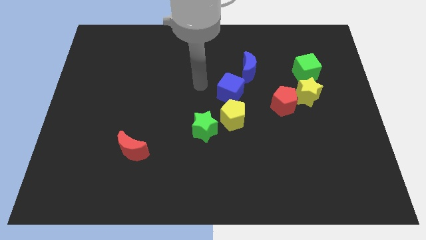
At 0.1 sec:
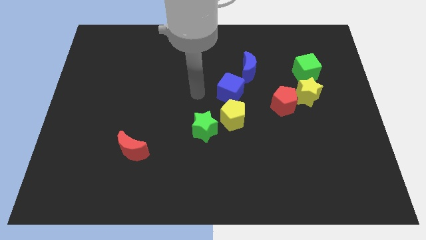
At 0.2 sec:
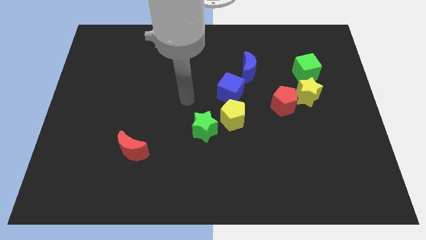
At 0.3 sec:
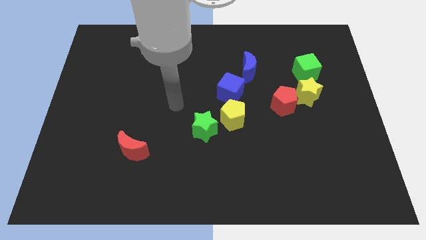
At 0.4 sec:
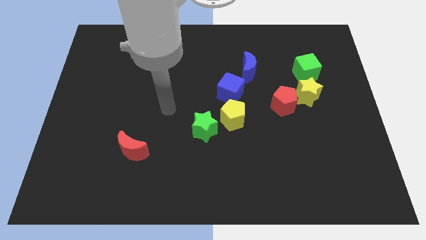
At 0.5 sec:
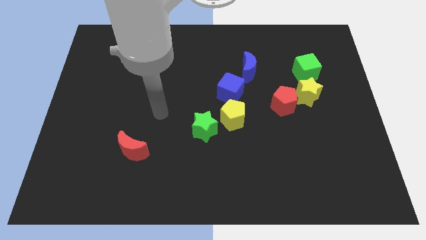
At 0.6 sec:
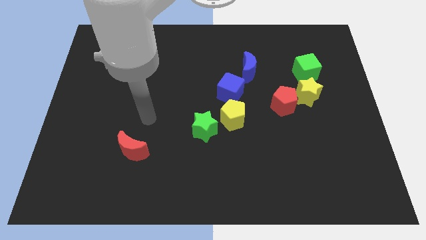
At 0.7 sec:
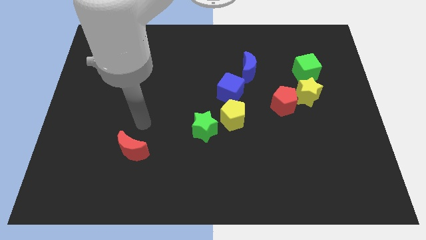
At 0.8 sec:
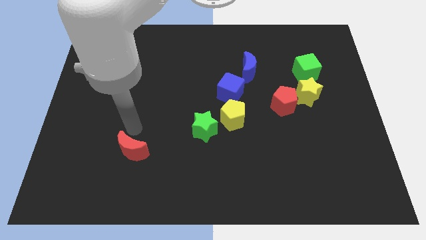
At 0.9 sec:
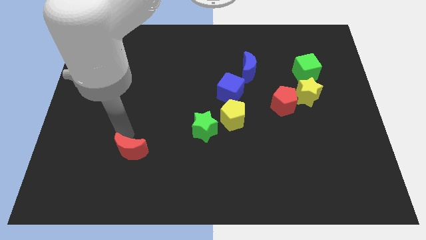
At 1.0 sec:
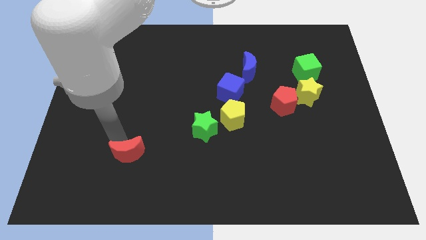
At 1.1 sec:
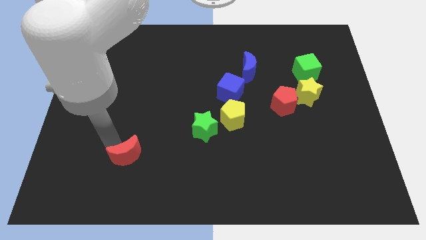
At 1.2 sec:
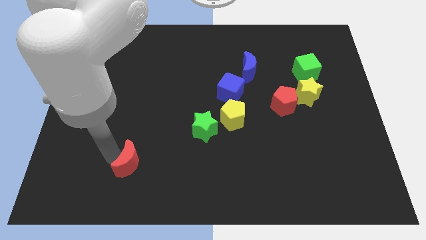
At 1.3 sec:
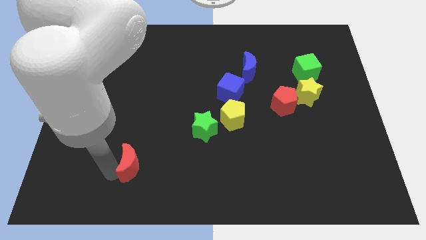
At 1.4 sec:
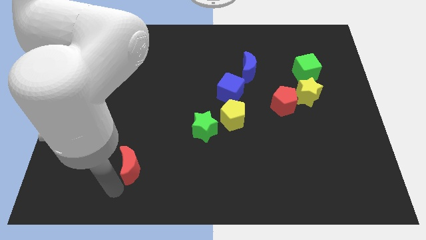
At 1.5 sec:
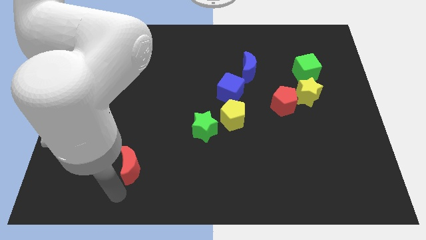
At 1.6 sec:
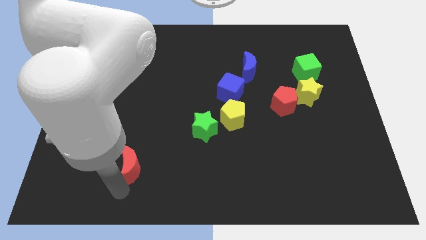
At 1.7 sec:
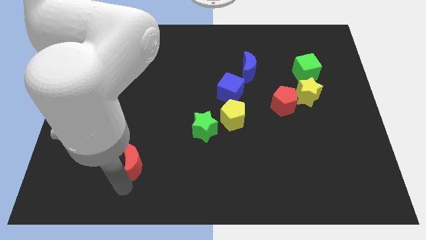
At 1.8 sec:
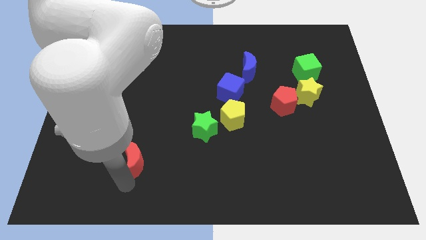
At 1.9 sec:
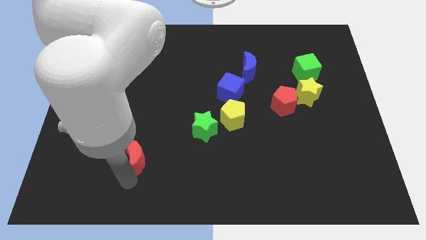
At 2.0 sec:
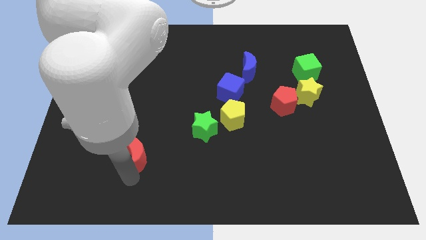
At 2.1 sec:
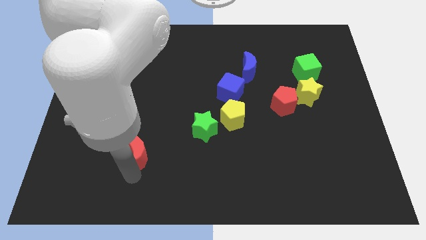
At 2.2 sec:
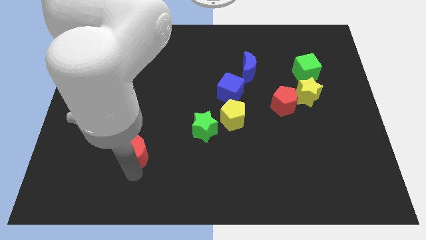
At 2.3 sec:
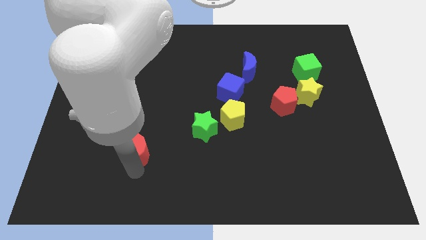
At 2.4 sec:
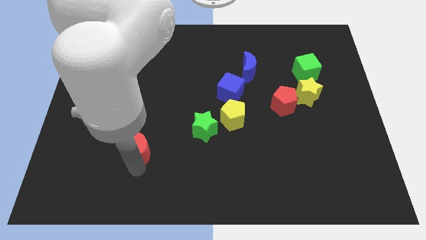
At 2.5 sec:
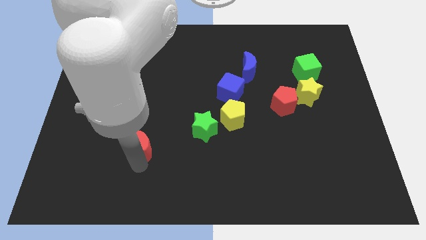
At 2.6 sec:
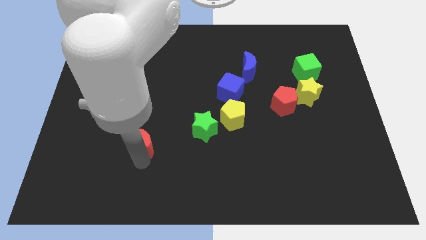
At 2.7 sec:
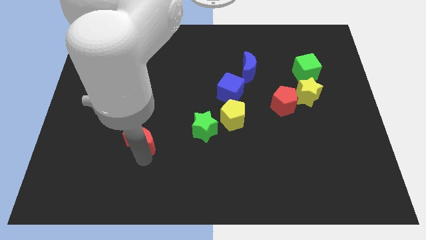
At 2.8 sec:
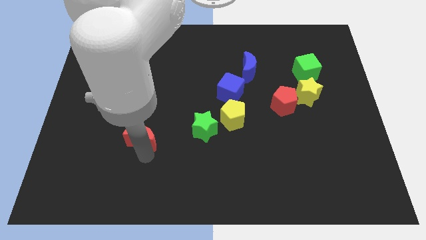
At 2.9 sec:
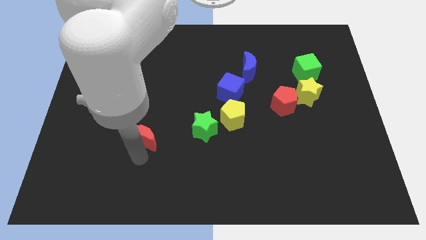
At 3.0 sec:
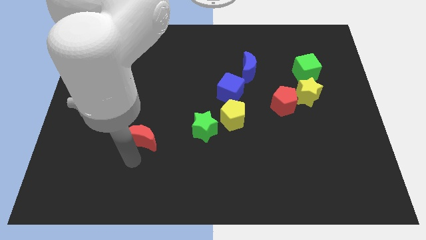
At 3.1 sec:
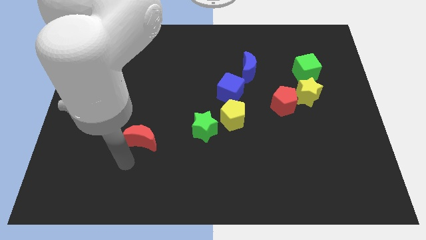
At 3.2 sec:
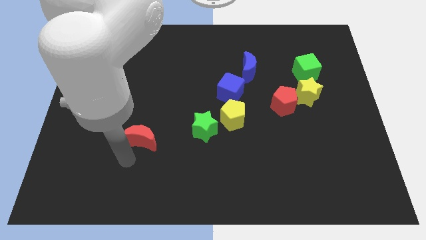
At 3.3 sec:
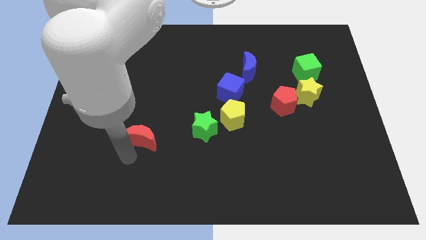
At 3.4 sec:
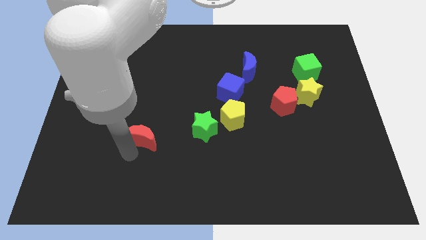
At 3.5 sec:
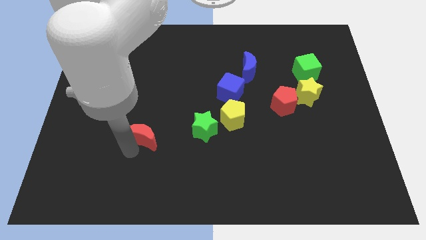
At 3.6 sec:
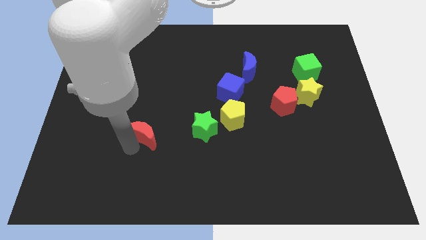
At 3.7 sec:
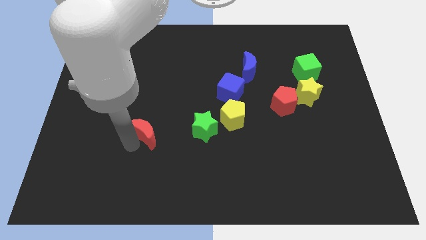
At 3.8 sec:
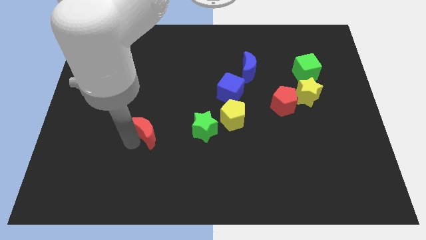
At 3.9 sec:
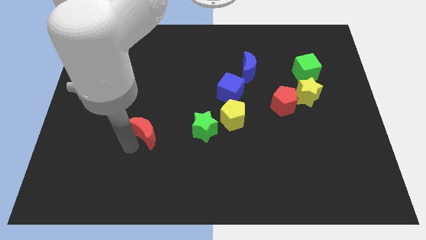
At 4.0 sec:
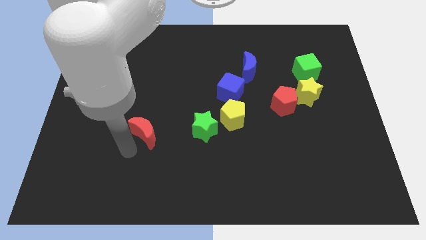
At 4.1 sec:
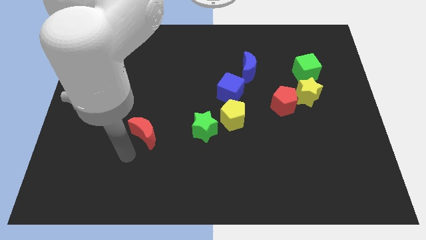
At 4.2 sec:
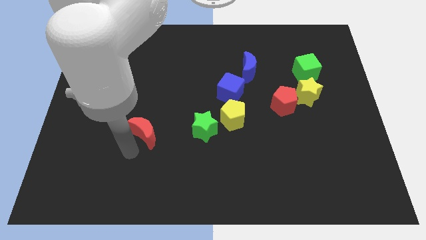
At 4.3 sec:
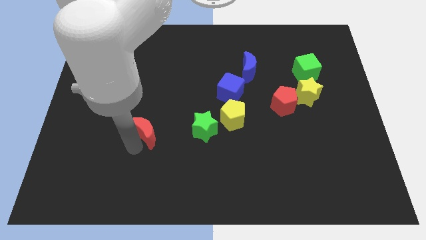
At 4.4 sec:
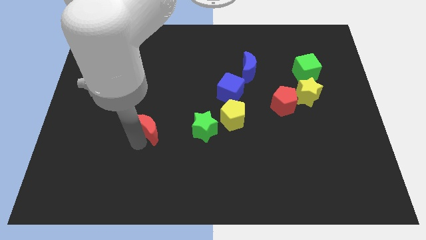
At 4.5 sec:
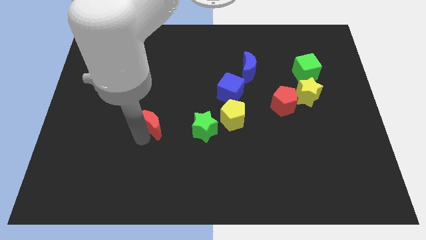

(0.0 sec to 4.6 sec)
push the red moon diagonally upwards and right a little

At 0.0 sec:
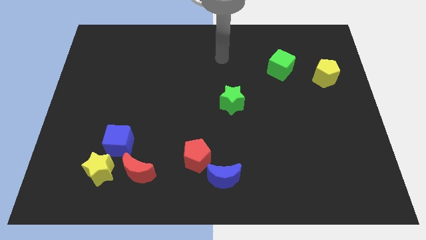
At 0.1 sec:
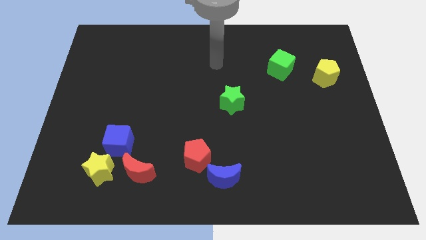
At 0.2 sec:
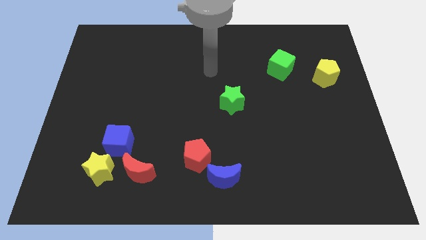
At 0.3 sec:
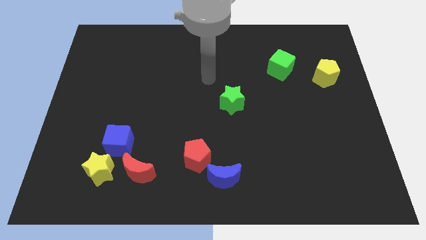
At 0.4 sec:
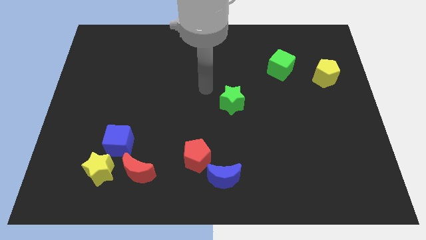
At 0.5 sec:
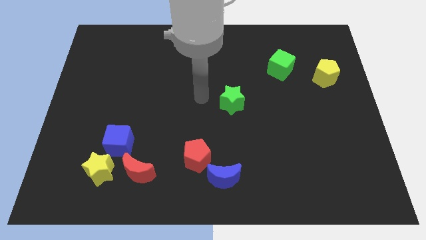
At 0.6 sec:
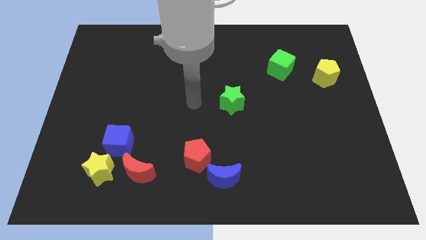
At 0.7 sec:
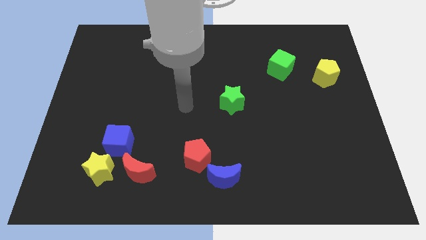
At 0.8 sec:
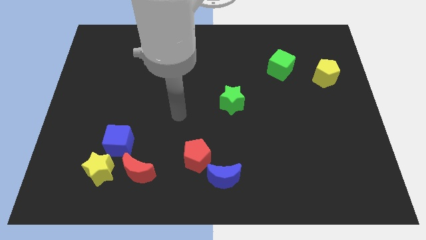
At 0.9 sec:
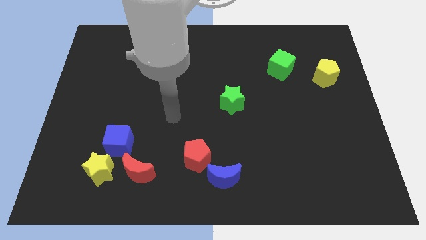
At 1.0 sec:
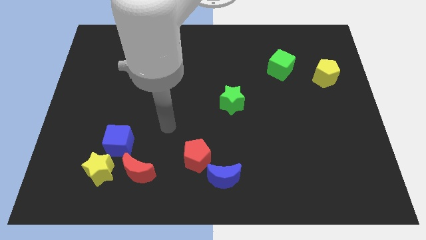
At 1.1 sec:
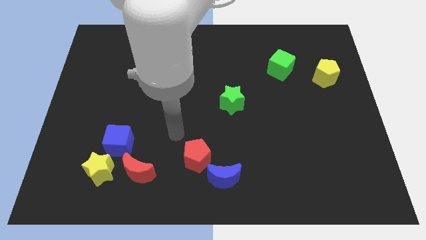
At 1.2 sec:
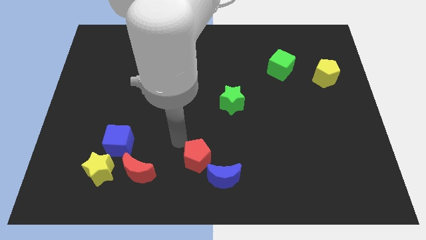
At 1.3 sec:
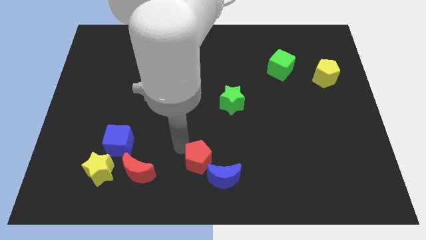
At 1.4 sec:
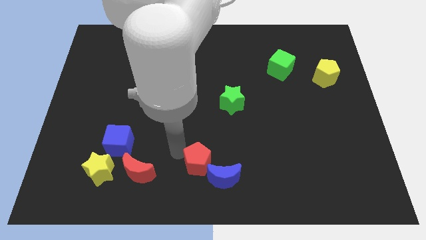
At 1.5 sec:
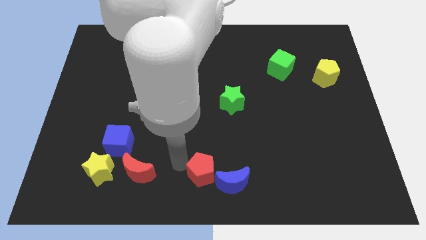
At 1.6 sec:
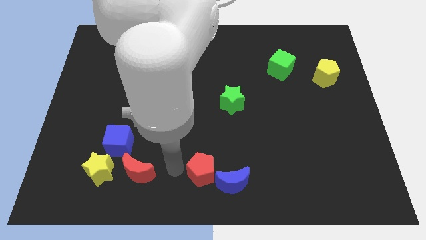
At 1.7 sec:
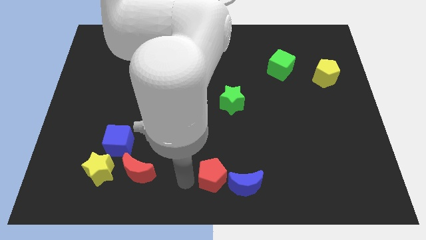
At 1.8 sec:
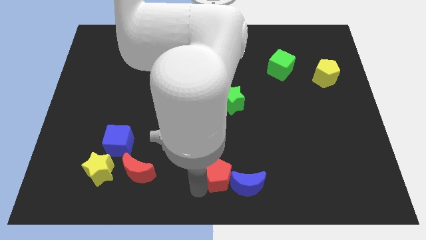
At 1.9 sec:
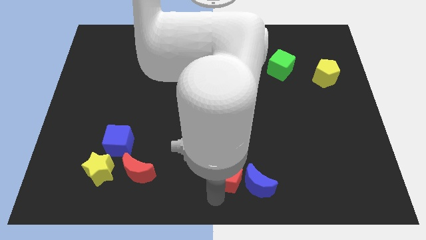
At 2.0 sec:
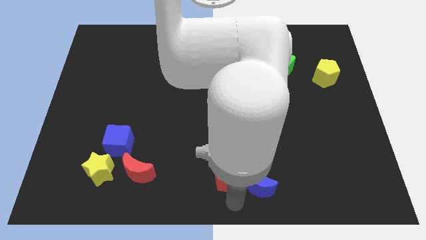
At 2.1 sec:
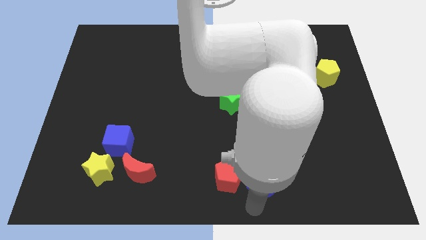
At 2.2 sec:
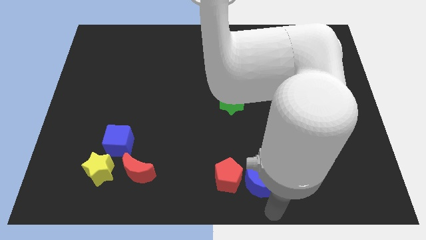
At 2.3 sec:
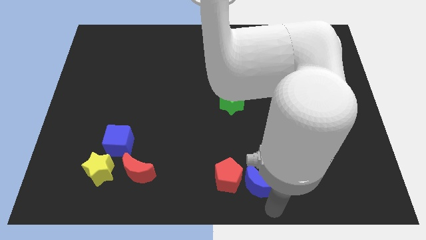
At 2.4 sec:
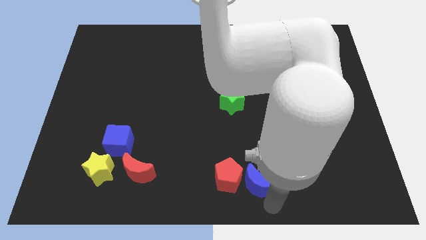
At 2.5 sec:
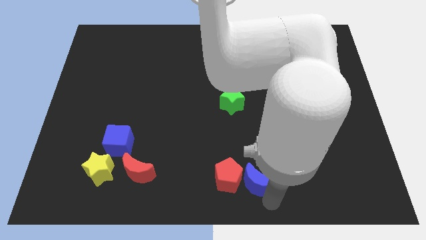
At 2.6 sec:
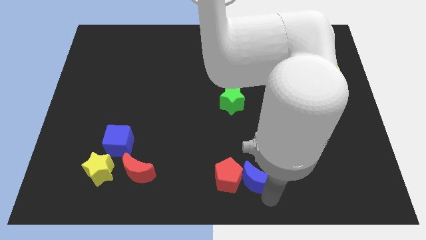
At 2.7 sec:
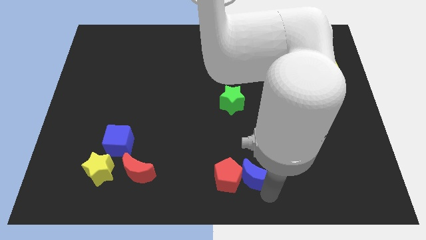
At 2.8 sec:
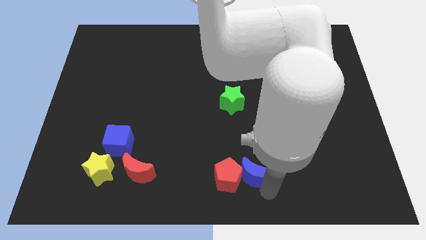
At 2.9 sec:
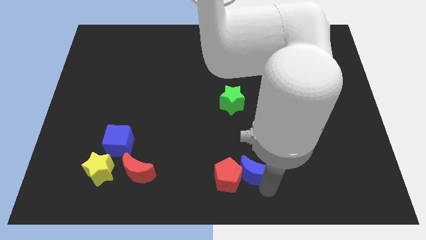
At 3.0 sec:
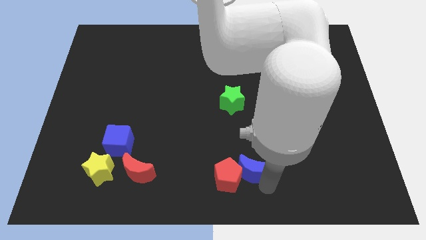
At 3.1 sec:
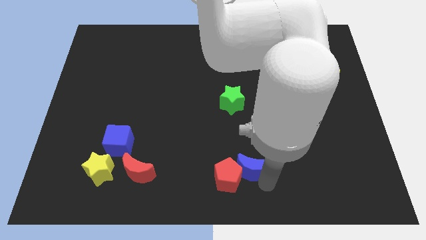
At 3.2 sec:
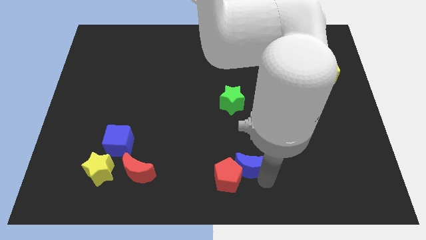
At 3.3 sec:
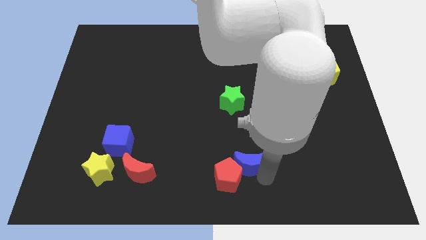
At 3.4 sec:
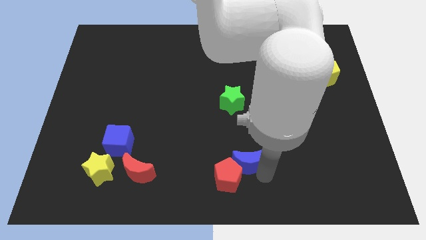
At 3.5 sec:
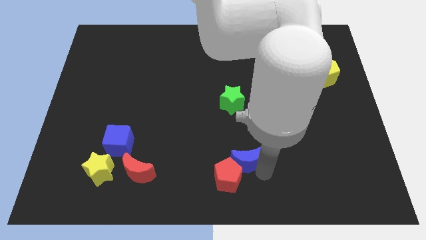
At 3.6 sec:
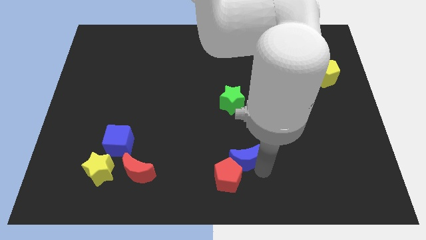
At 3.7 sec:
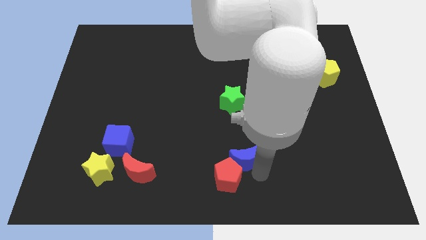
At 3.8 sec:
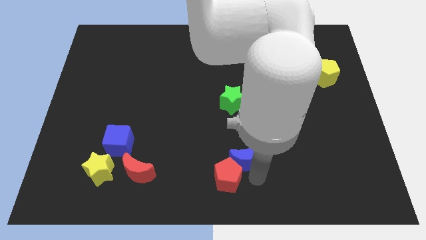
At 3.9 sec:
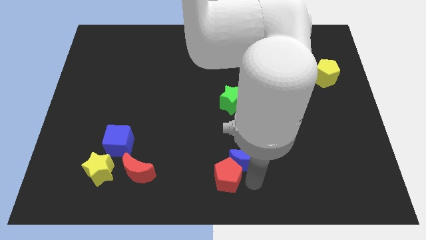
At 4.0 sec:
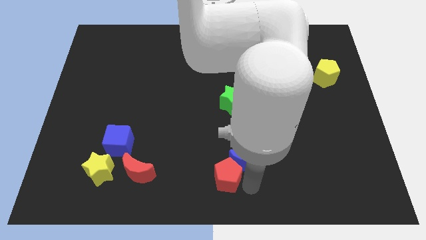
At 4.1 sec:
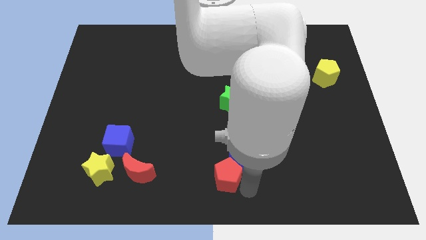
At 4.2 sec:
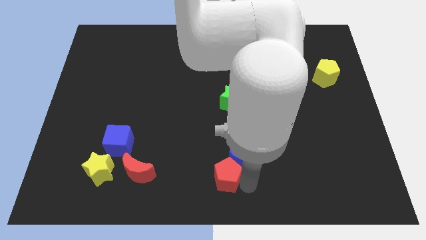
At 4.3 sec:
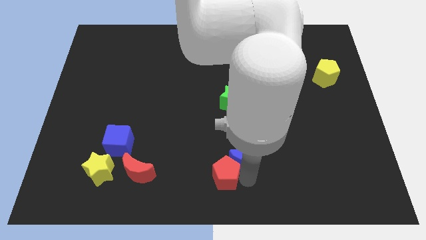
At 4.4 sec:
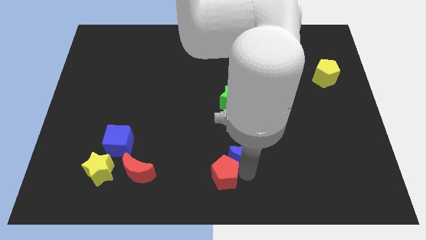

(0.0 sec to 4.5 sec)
slightly slide the blue moon up and to the right
